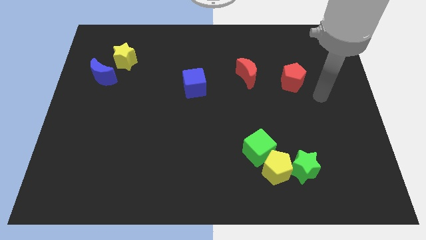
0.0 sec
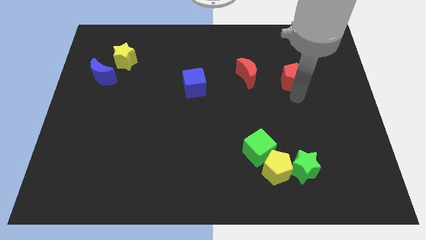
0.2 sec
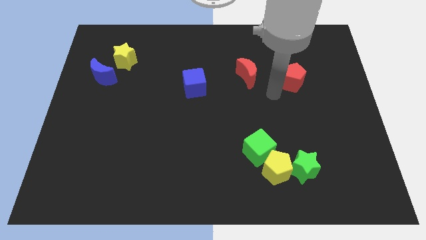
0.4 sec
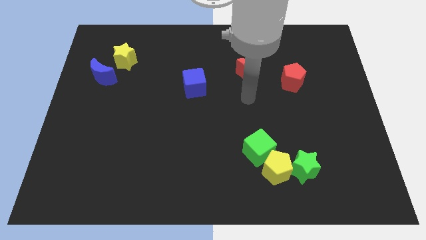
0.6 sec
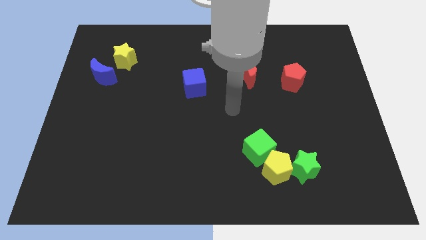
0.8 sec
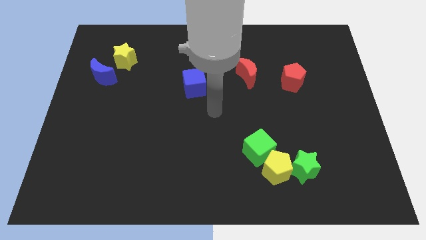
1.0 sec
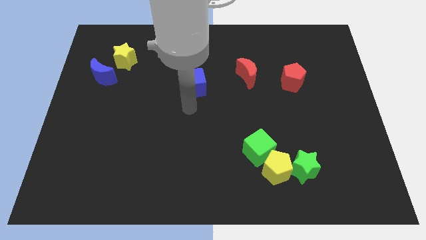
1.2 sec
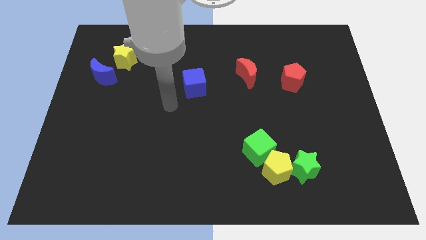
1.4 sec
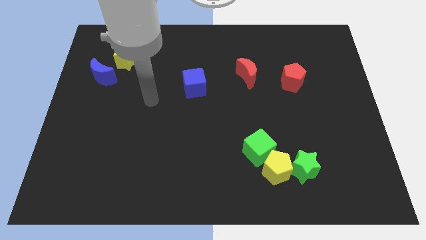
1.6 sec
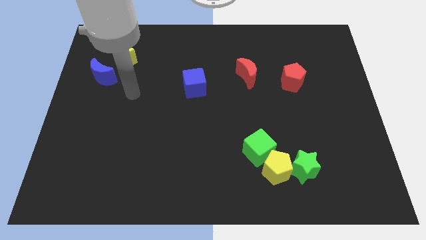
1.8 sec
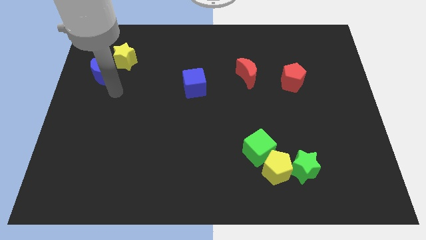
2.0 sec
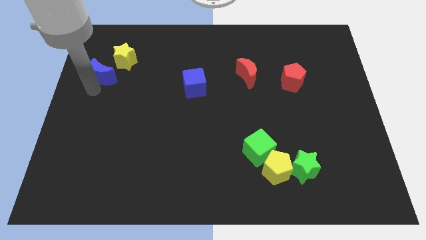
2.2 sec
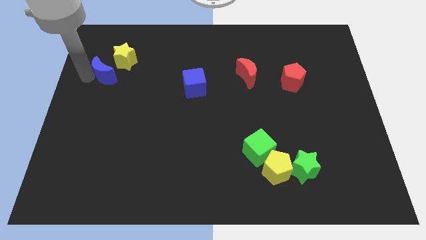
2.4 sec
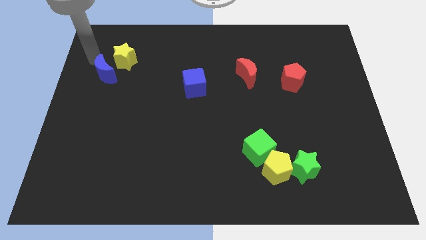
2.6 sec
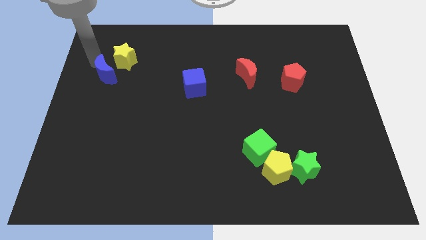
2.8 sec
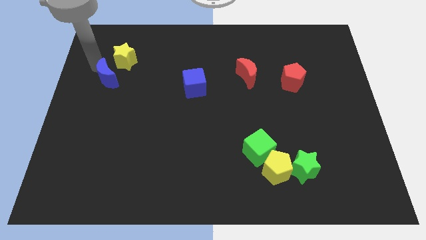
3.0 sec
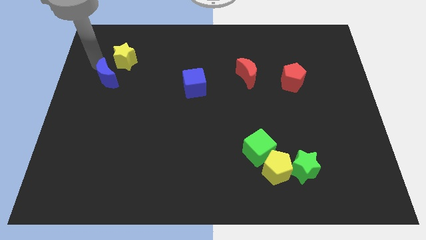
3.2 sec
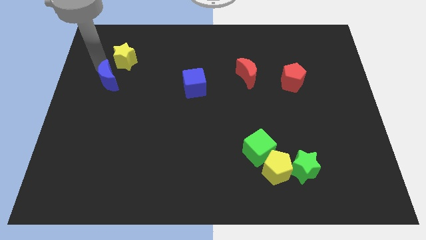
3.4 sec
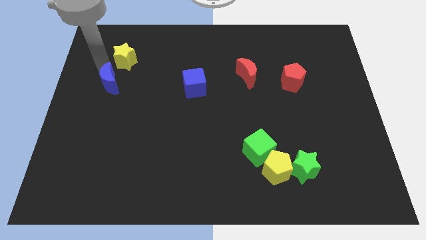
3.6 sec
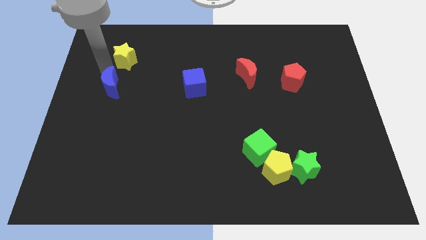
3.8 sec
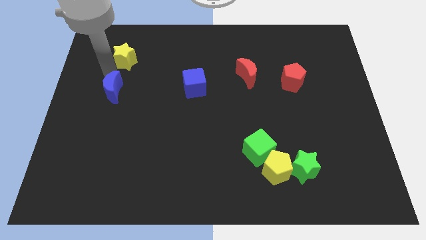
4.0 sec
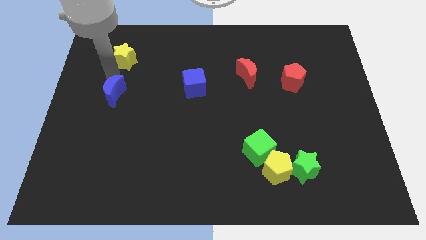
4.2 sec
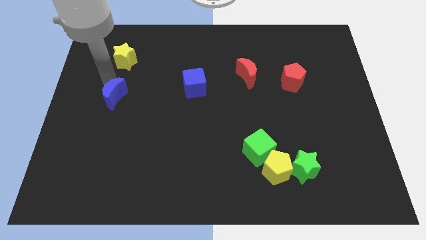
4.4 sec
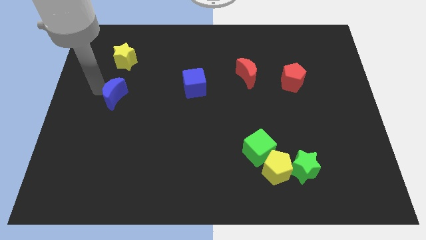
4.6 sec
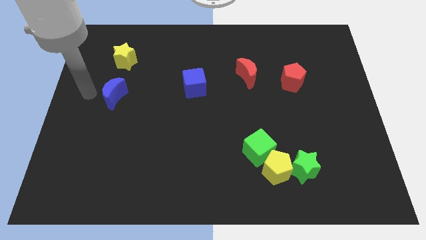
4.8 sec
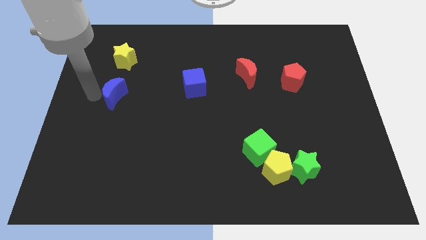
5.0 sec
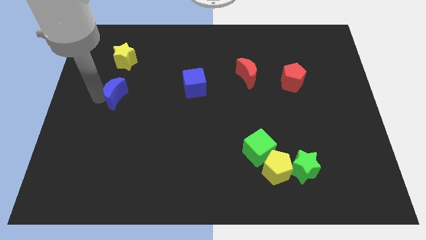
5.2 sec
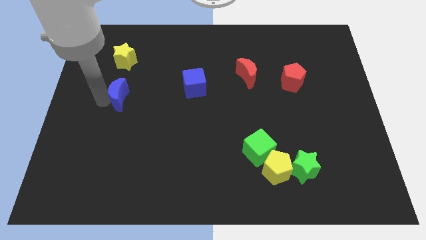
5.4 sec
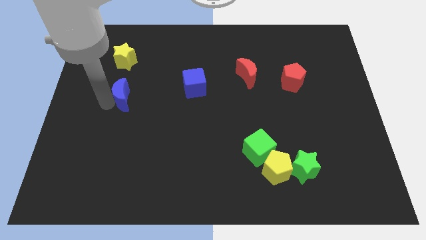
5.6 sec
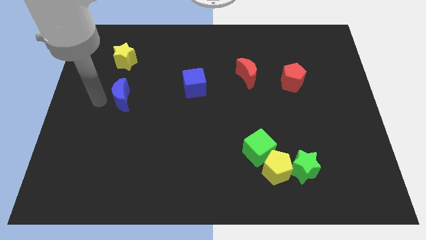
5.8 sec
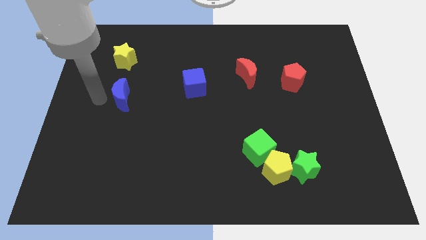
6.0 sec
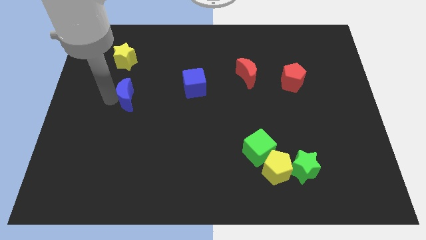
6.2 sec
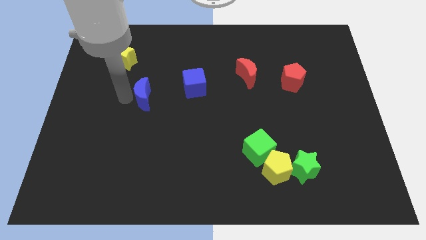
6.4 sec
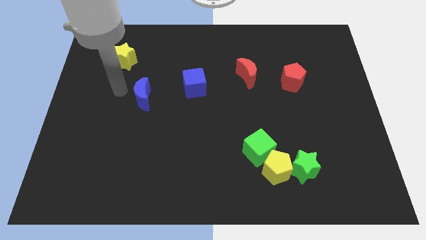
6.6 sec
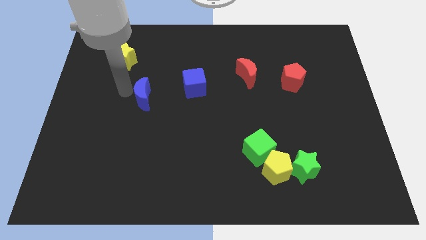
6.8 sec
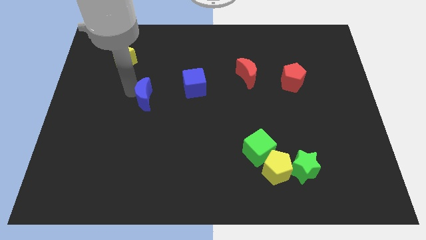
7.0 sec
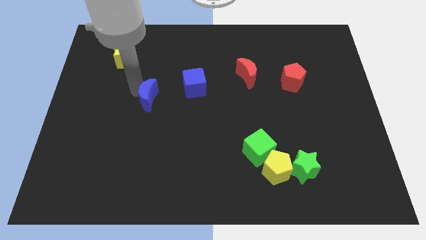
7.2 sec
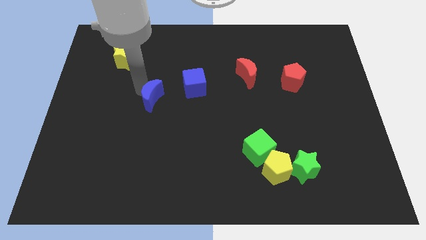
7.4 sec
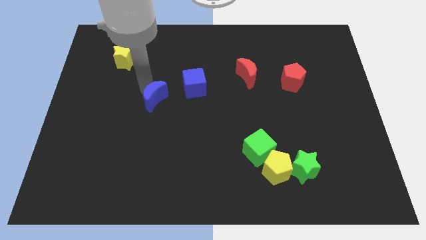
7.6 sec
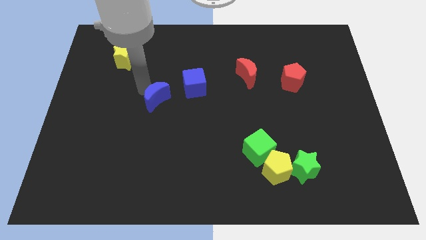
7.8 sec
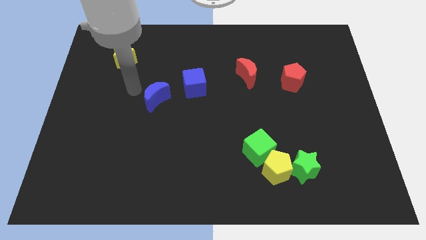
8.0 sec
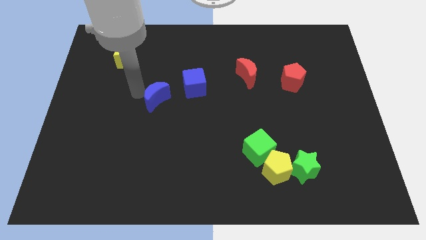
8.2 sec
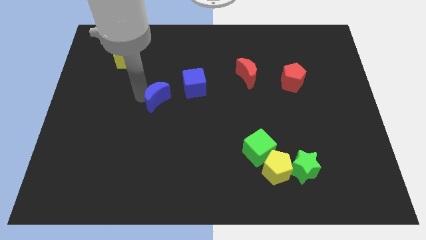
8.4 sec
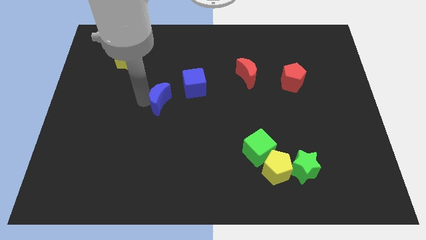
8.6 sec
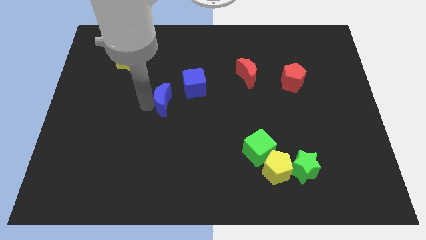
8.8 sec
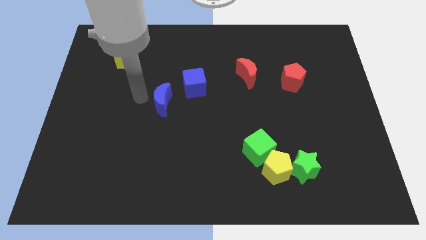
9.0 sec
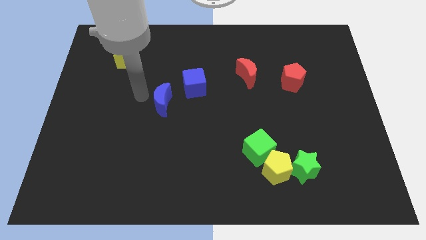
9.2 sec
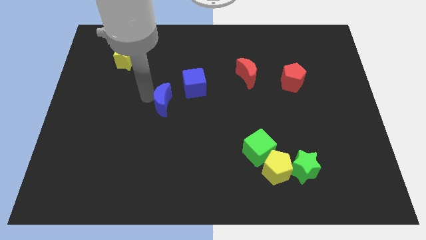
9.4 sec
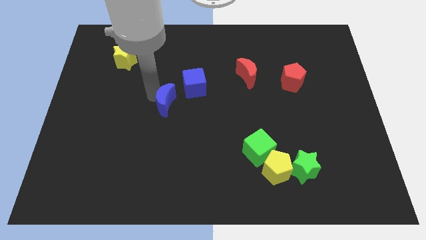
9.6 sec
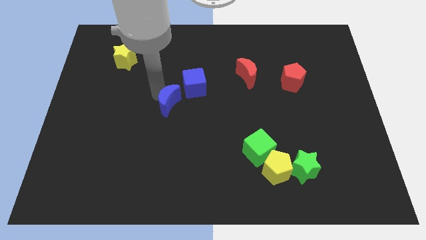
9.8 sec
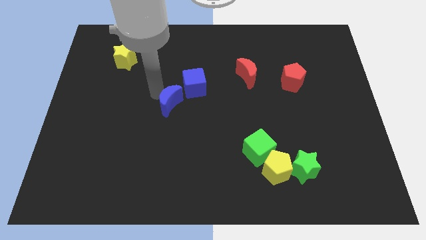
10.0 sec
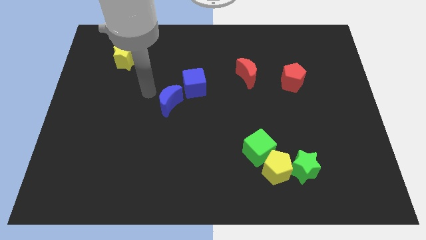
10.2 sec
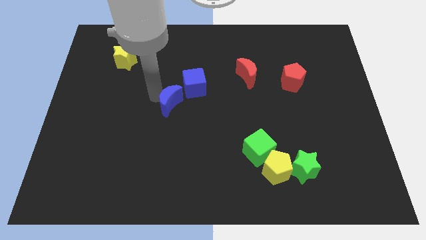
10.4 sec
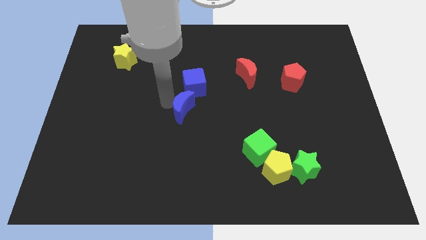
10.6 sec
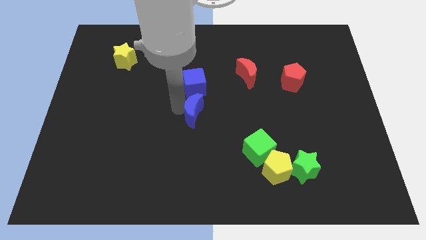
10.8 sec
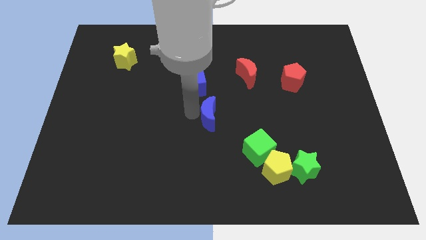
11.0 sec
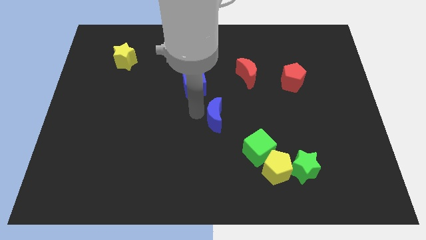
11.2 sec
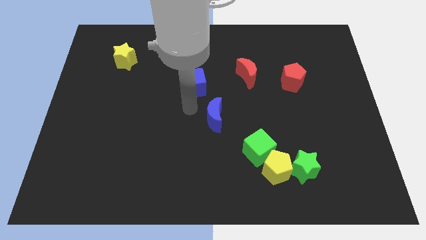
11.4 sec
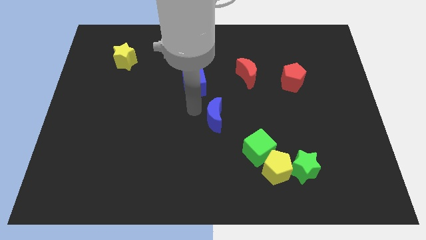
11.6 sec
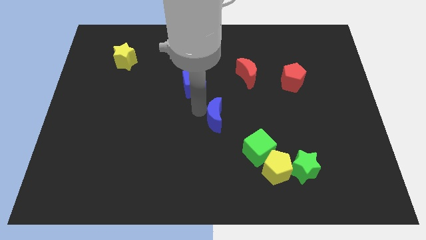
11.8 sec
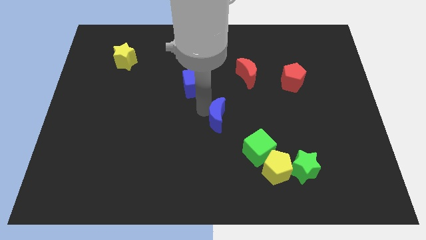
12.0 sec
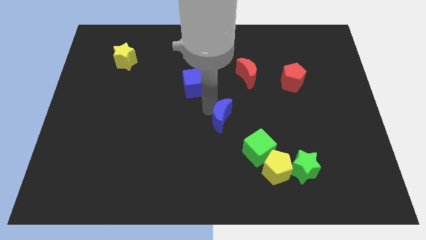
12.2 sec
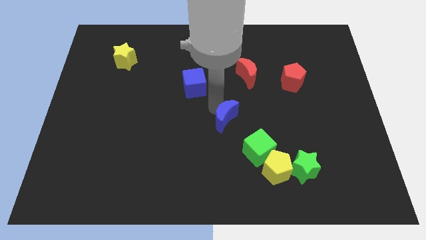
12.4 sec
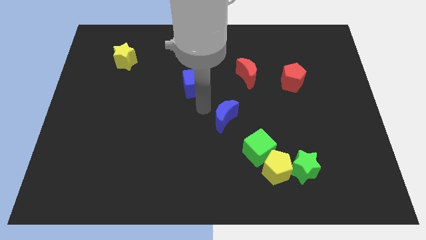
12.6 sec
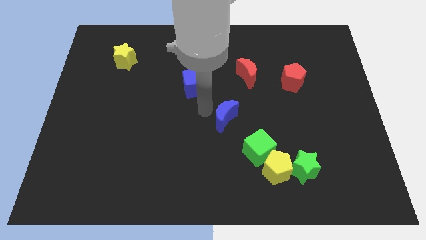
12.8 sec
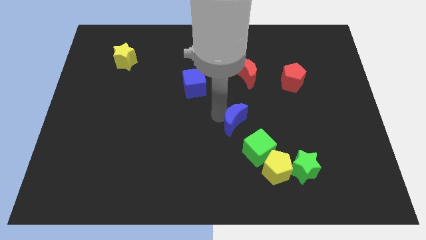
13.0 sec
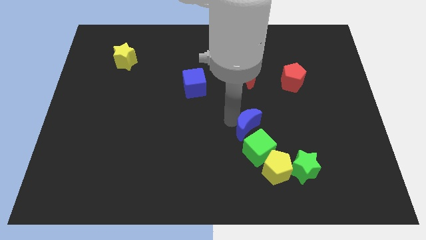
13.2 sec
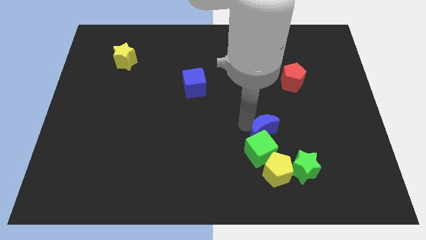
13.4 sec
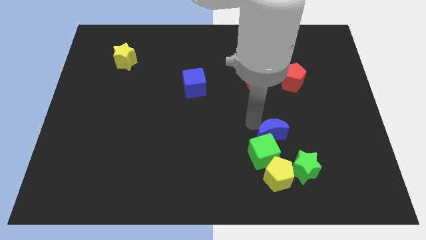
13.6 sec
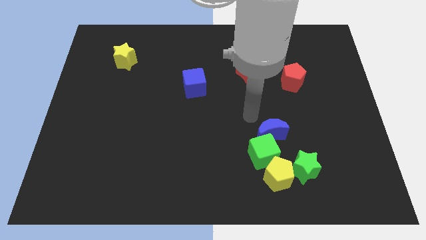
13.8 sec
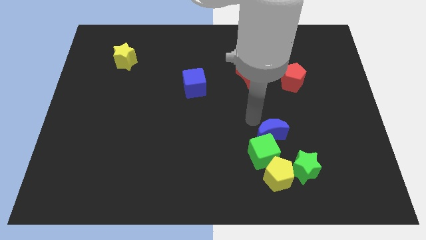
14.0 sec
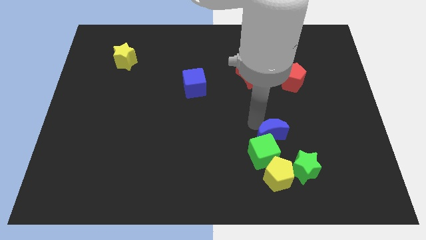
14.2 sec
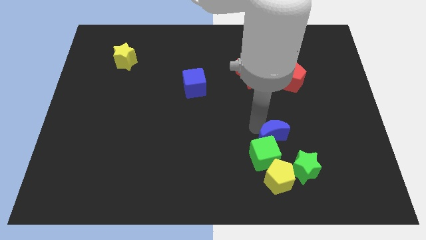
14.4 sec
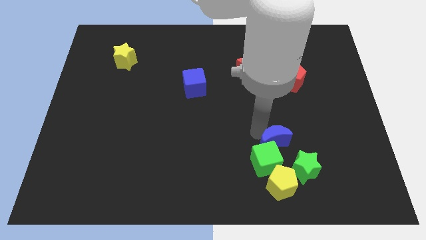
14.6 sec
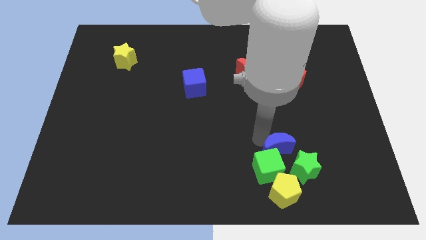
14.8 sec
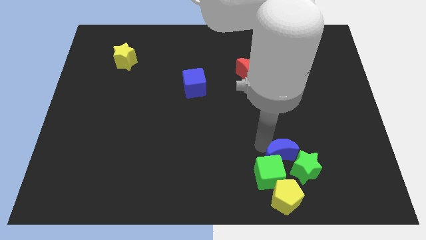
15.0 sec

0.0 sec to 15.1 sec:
move the blue moon next to the green star

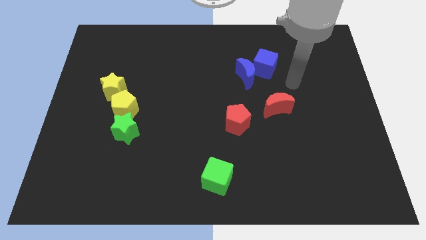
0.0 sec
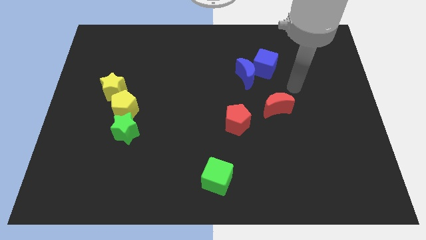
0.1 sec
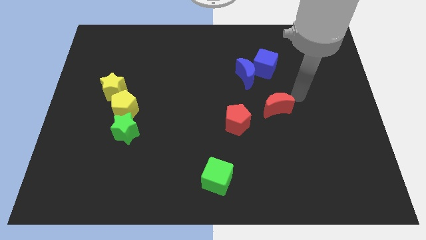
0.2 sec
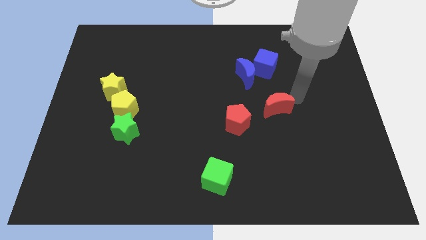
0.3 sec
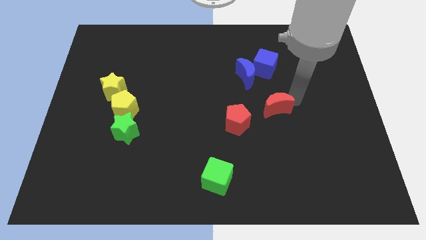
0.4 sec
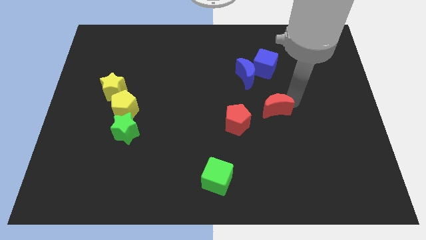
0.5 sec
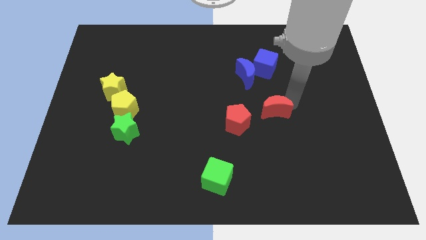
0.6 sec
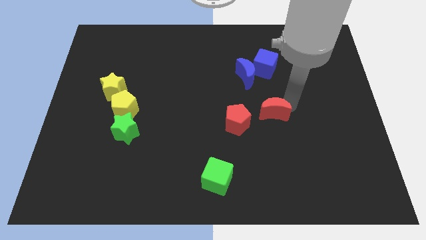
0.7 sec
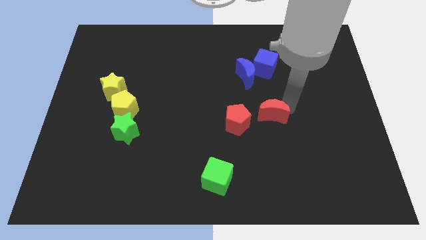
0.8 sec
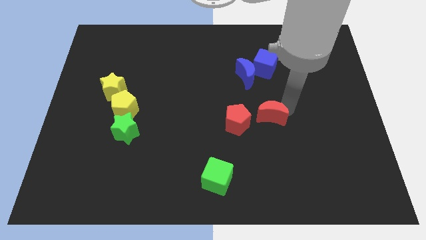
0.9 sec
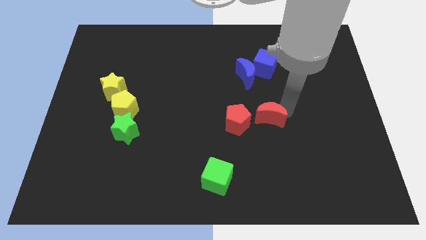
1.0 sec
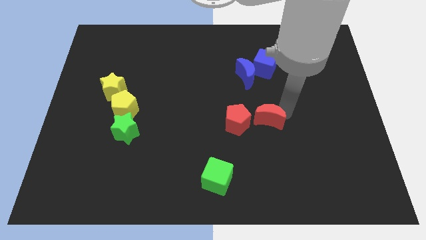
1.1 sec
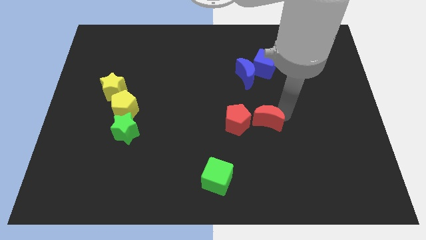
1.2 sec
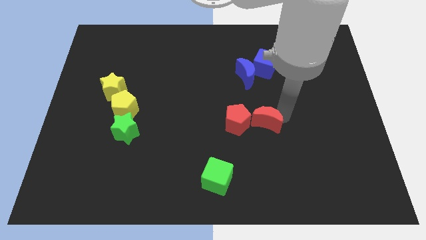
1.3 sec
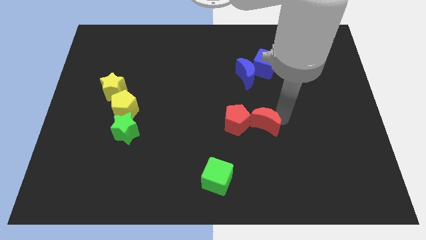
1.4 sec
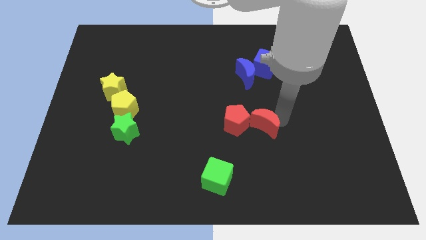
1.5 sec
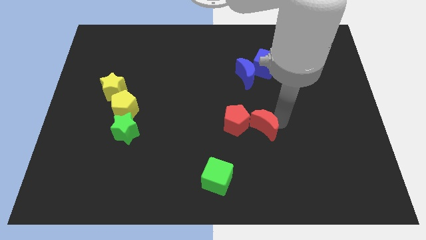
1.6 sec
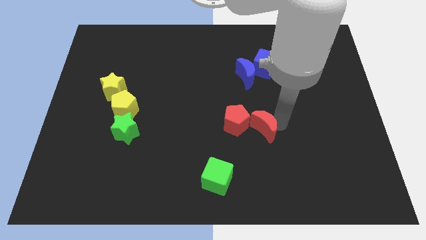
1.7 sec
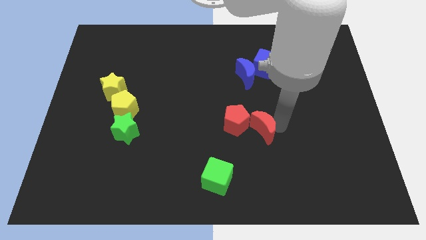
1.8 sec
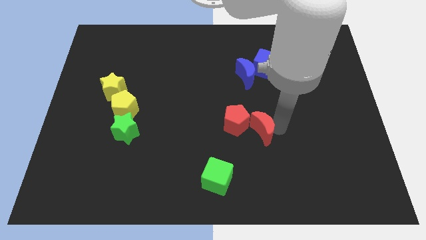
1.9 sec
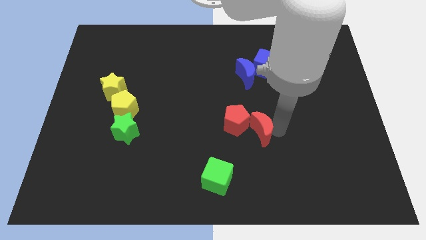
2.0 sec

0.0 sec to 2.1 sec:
slide the red moon to the red pentagon
